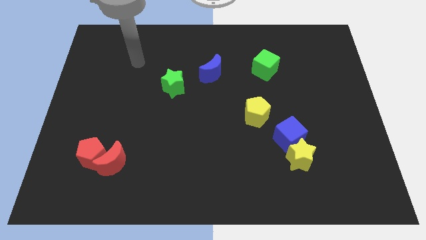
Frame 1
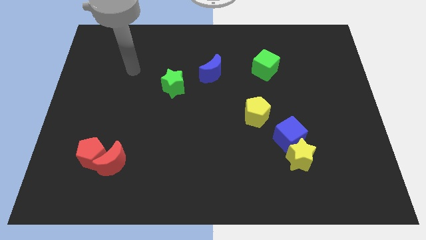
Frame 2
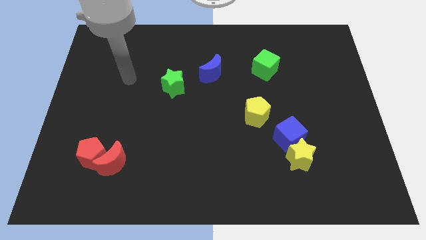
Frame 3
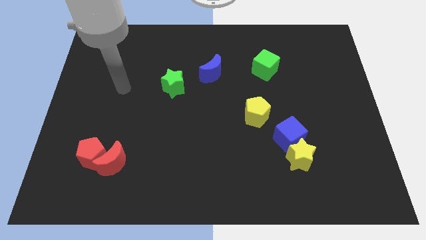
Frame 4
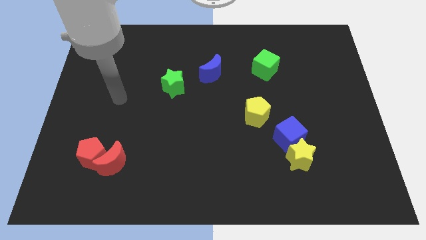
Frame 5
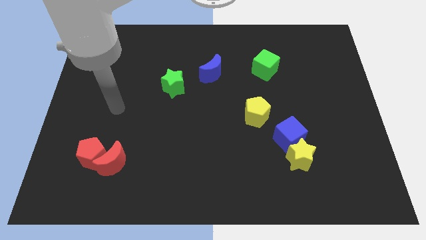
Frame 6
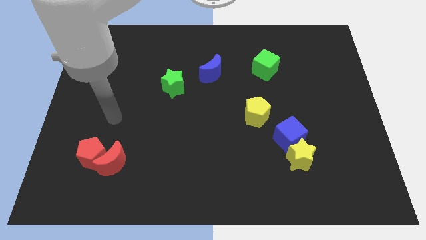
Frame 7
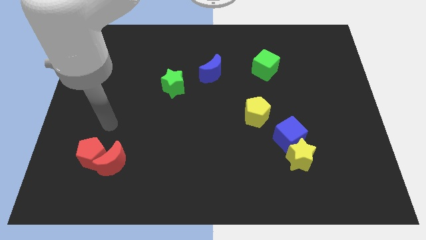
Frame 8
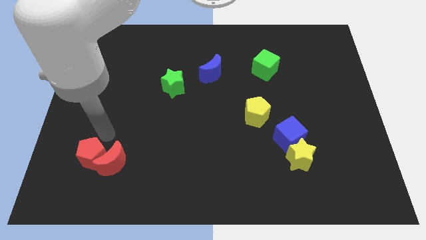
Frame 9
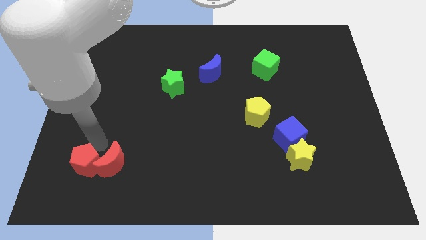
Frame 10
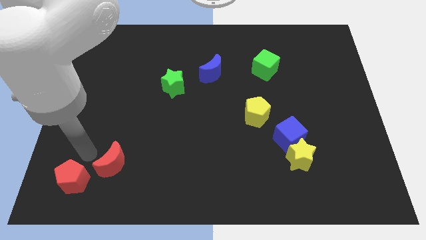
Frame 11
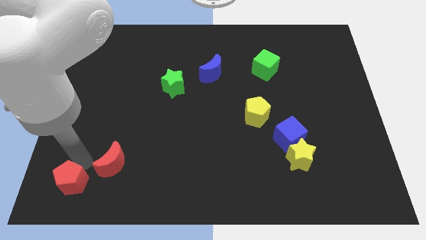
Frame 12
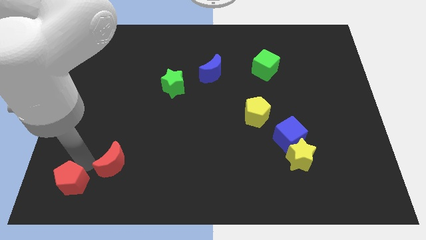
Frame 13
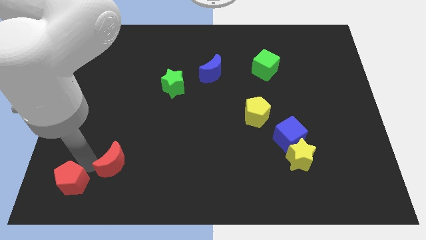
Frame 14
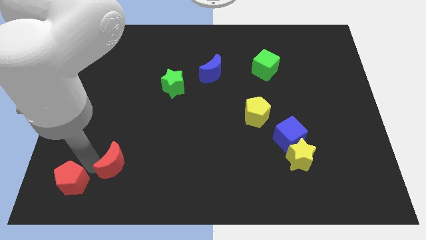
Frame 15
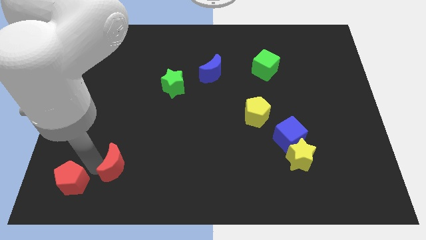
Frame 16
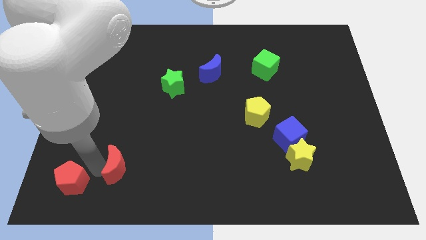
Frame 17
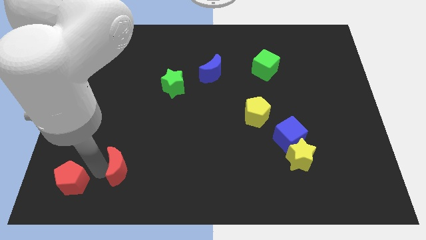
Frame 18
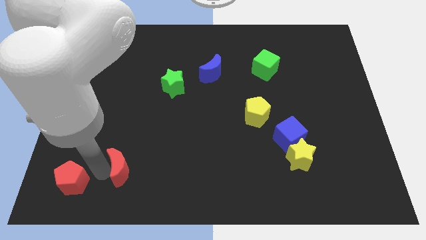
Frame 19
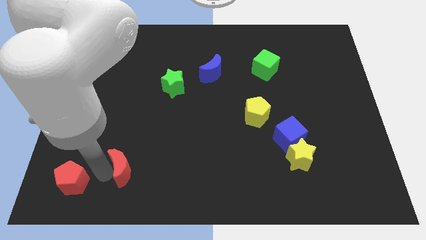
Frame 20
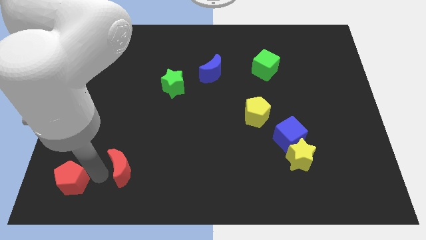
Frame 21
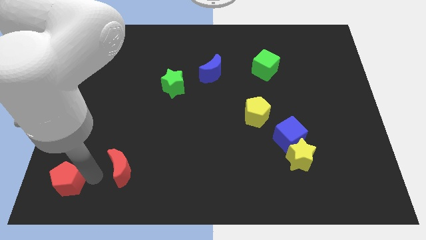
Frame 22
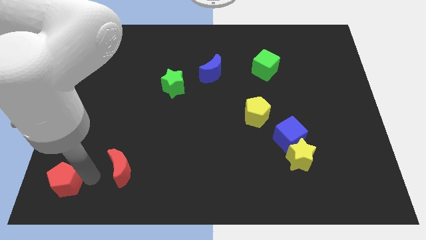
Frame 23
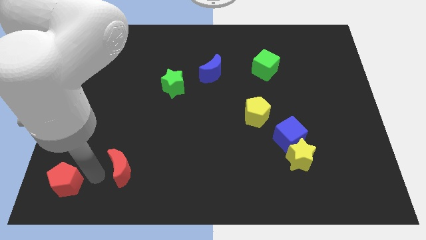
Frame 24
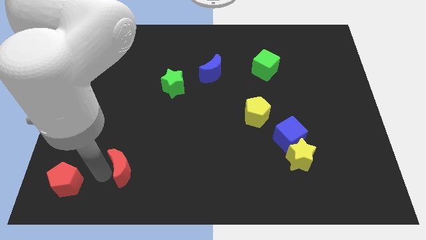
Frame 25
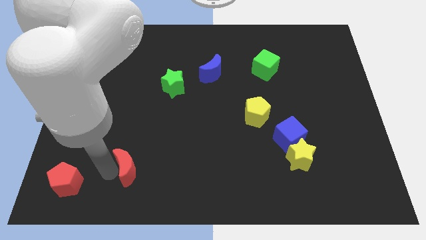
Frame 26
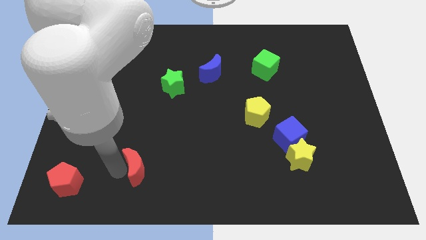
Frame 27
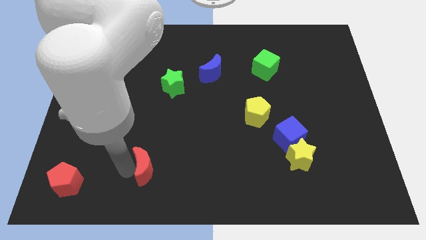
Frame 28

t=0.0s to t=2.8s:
slightly slide the red moon right

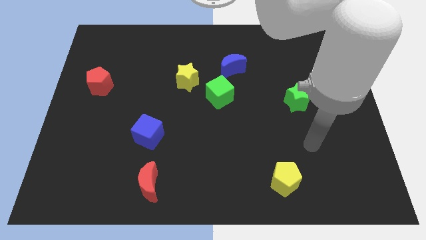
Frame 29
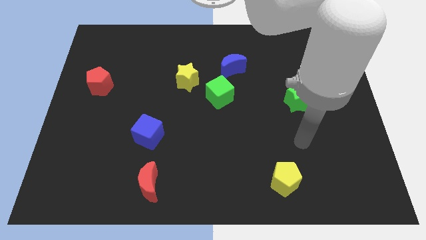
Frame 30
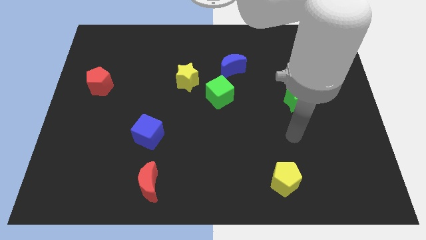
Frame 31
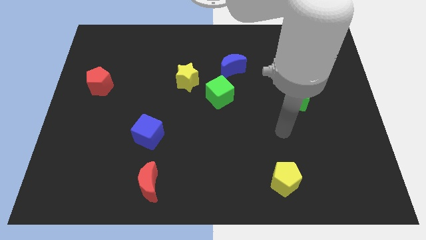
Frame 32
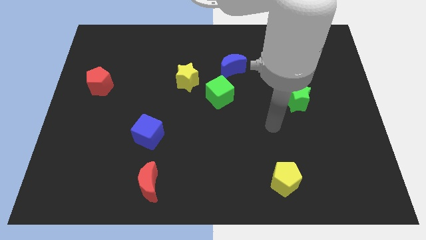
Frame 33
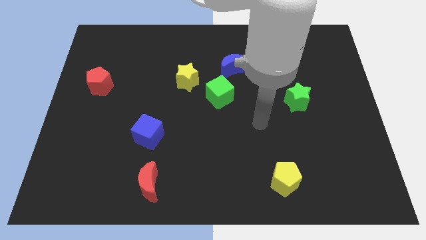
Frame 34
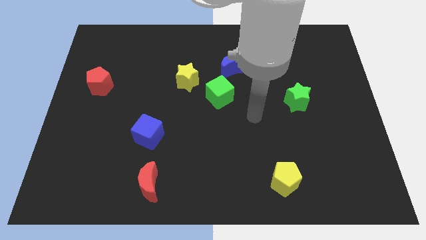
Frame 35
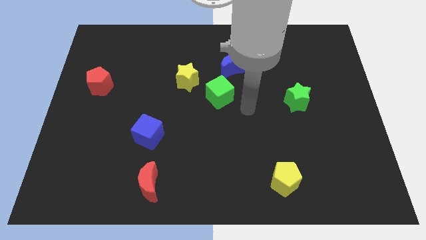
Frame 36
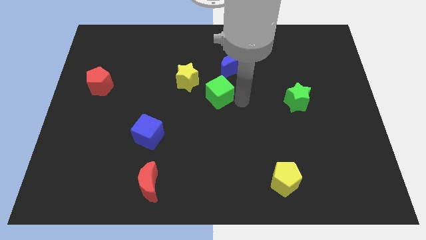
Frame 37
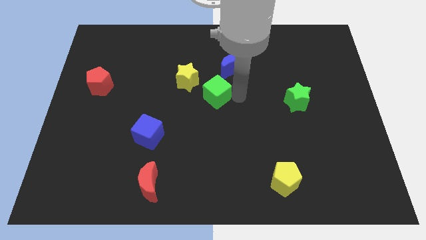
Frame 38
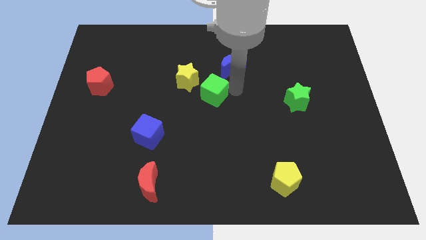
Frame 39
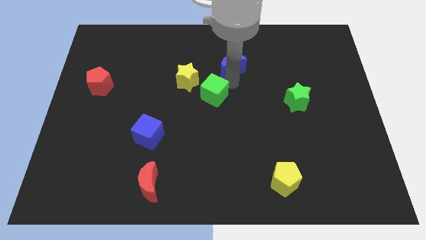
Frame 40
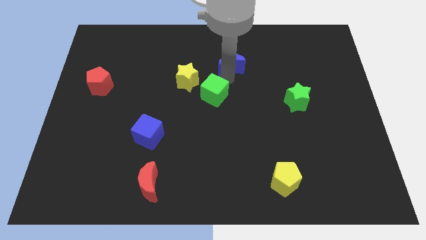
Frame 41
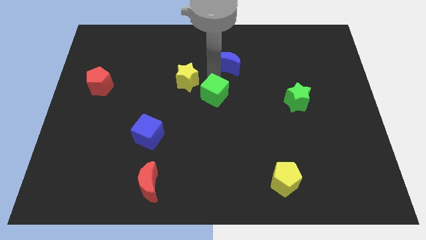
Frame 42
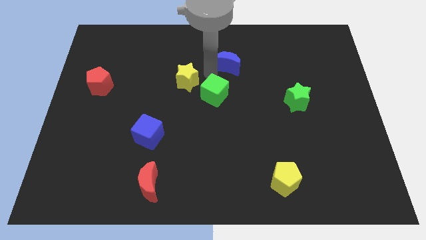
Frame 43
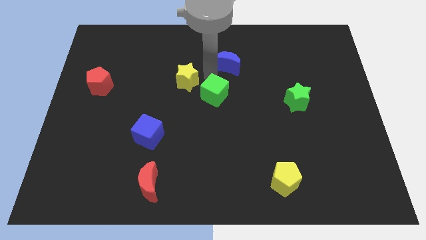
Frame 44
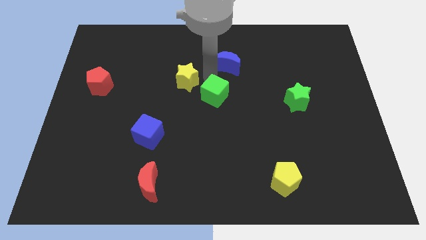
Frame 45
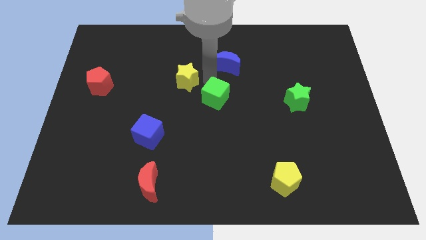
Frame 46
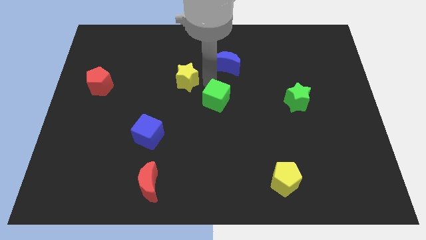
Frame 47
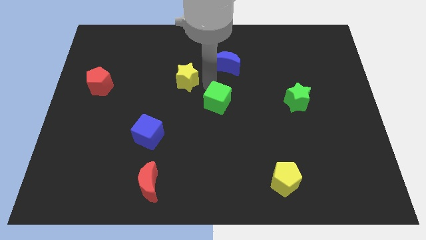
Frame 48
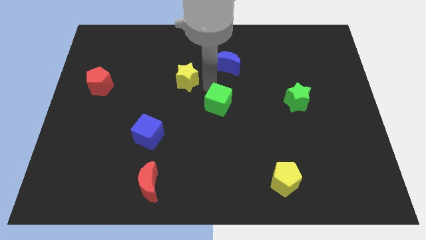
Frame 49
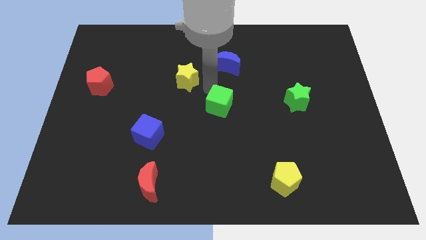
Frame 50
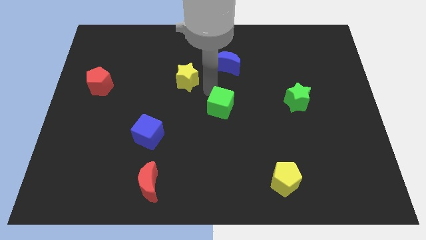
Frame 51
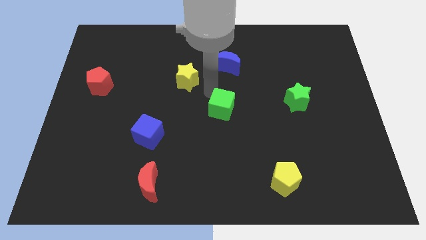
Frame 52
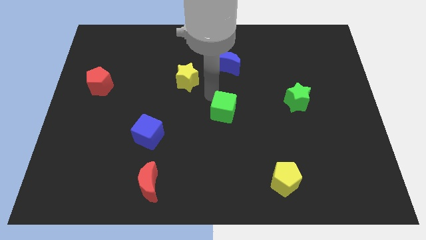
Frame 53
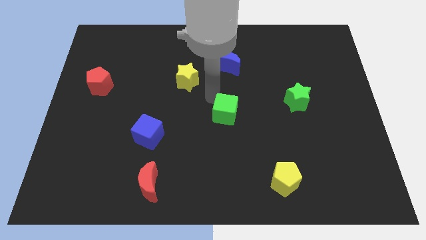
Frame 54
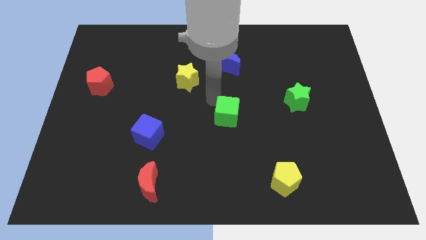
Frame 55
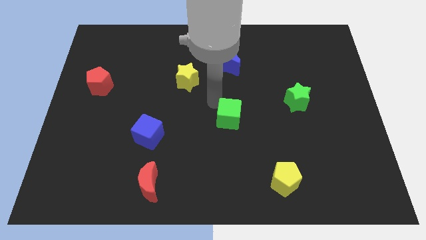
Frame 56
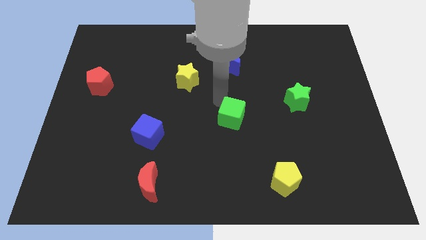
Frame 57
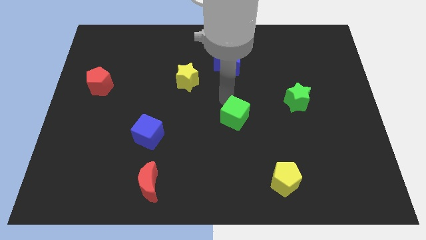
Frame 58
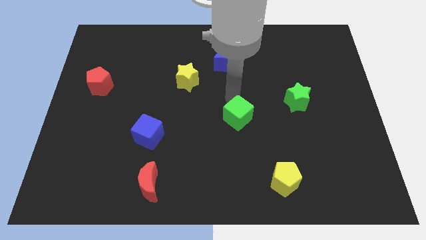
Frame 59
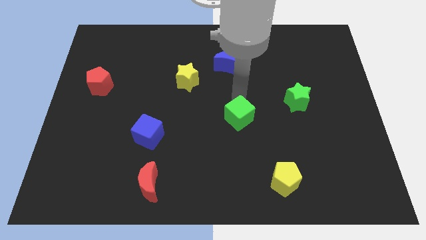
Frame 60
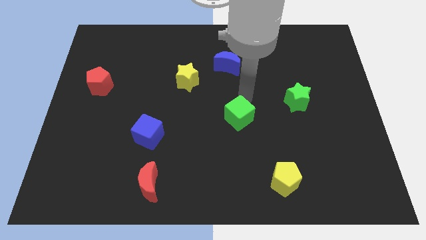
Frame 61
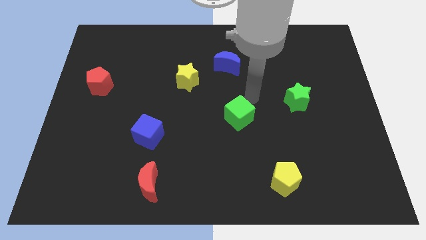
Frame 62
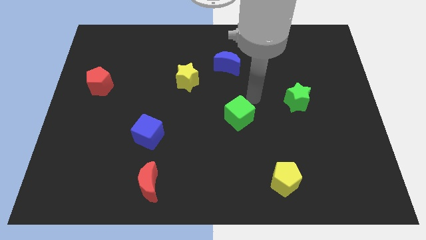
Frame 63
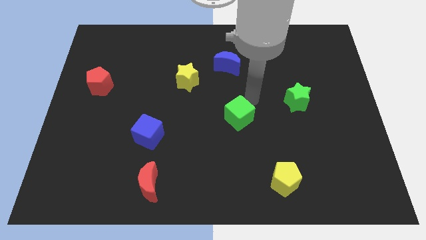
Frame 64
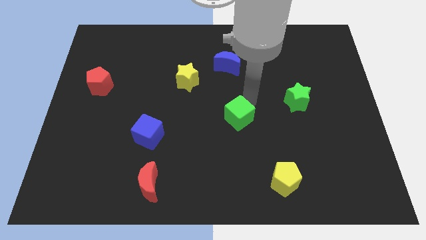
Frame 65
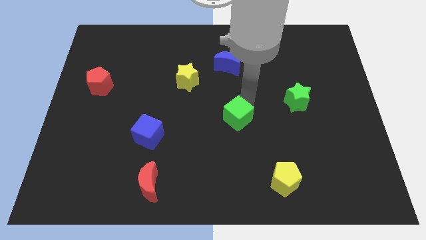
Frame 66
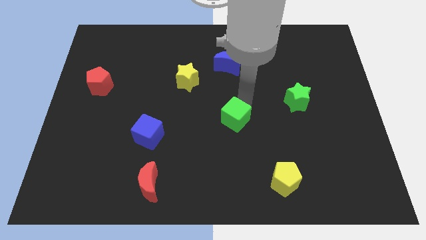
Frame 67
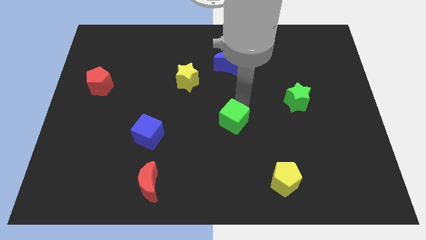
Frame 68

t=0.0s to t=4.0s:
slightly push the green cube down

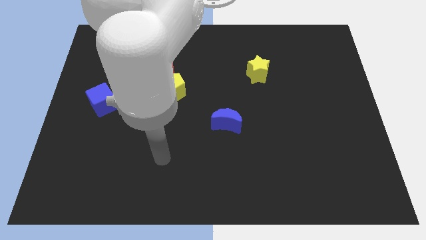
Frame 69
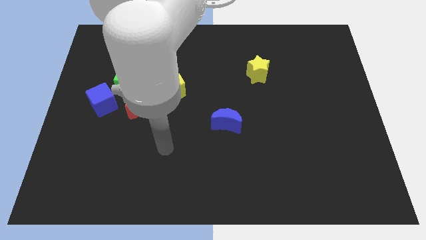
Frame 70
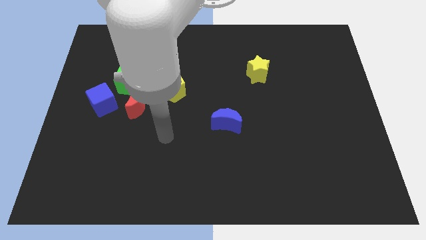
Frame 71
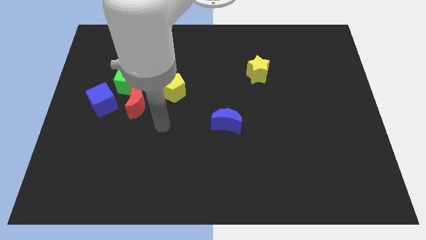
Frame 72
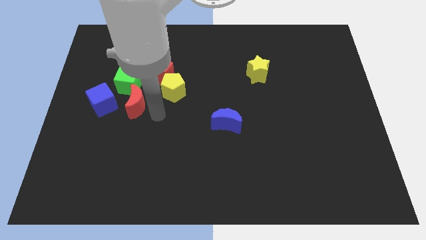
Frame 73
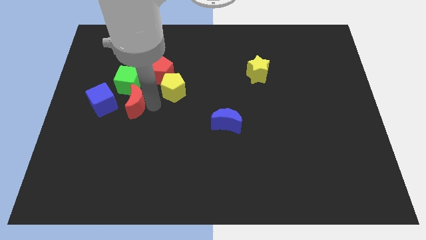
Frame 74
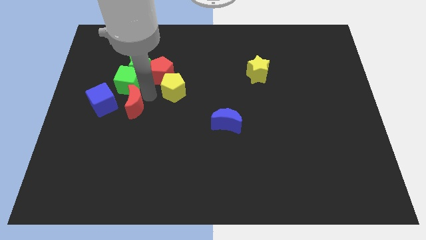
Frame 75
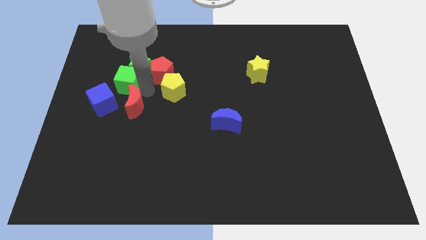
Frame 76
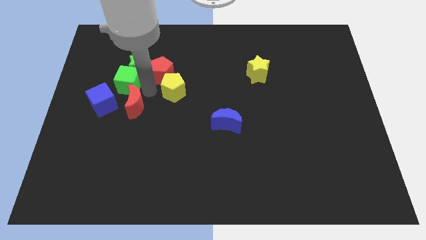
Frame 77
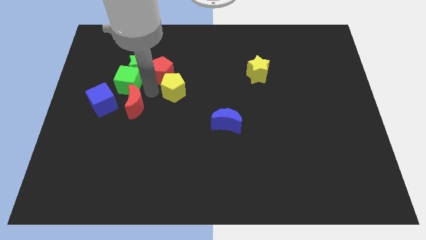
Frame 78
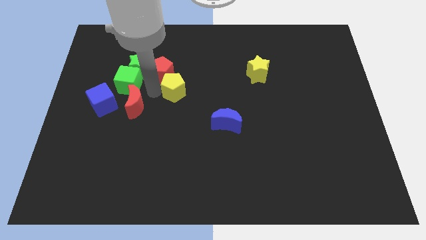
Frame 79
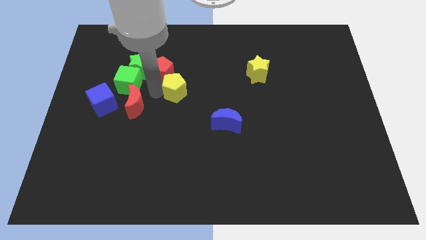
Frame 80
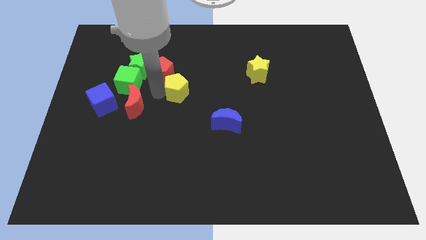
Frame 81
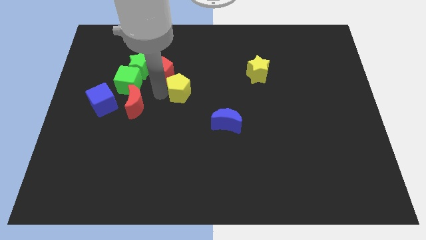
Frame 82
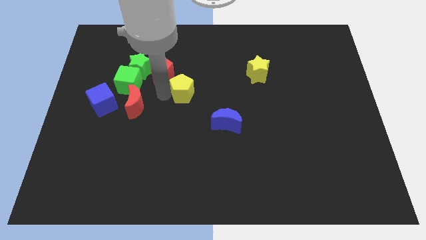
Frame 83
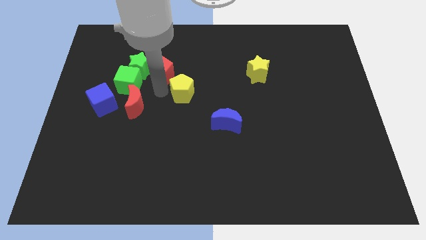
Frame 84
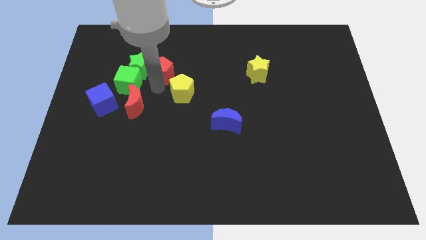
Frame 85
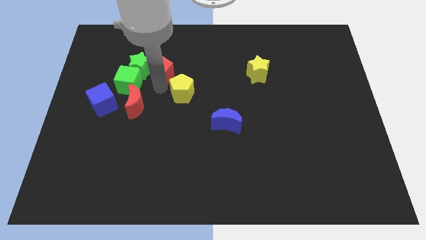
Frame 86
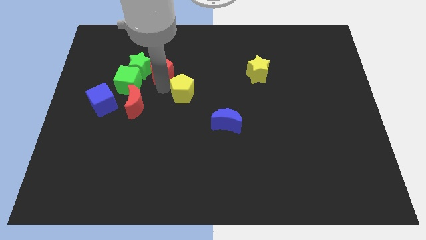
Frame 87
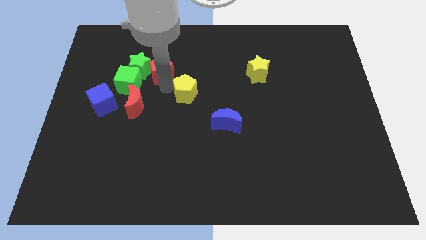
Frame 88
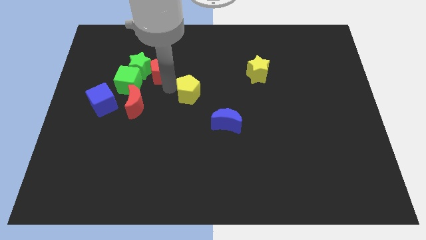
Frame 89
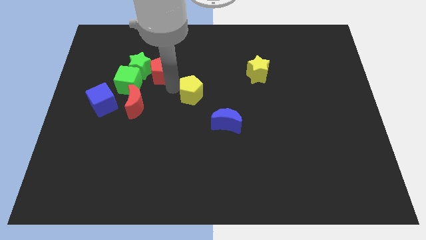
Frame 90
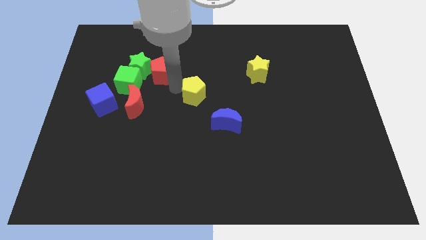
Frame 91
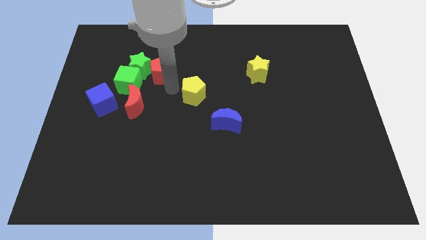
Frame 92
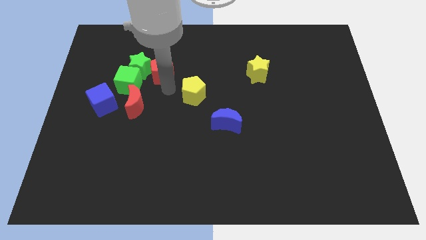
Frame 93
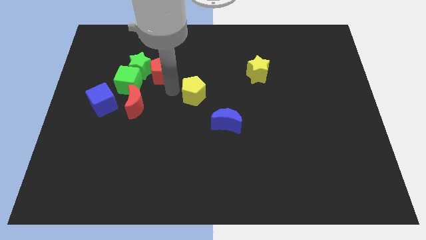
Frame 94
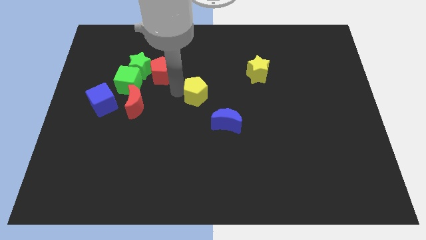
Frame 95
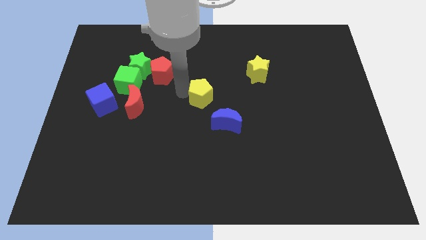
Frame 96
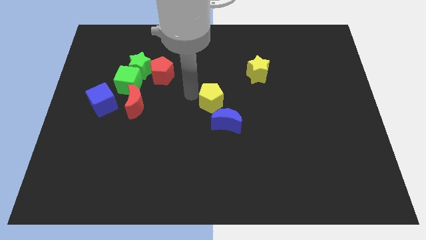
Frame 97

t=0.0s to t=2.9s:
move the yellow pentagon downwards and to the right diagonally a little bit
